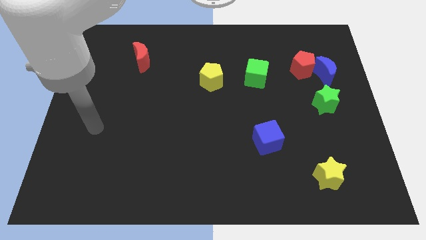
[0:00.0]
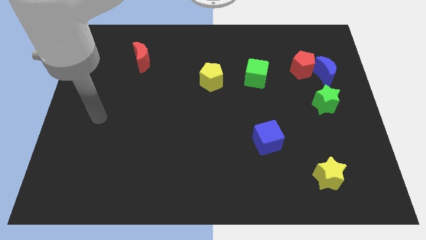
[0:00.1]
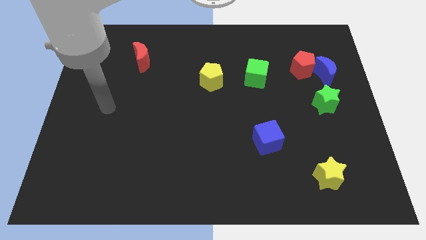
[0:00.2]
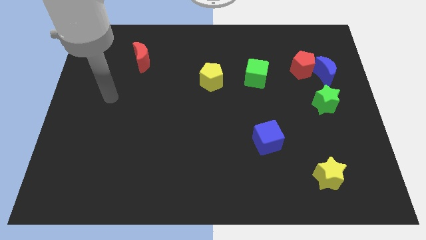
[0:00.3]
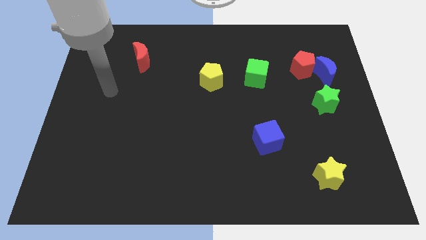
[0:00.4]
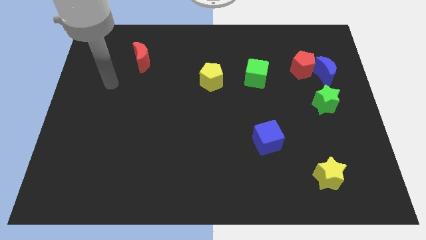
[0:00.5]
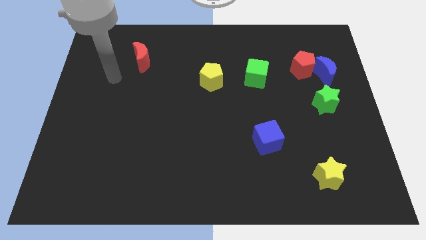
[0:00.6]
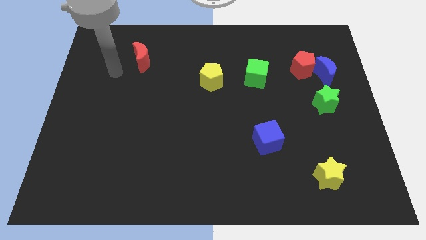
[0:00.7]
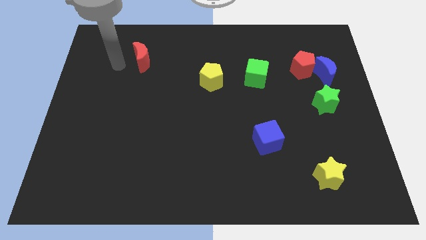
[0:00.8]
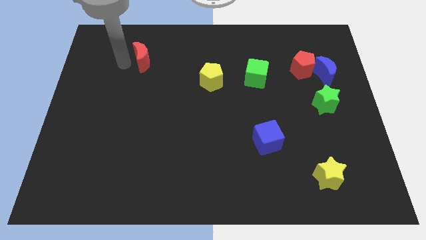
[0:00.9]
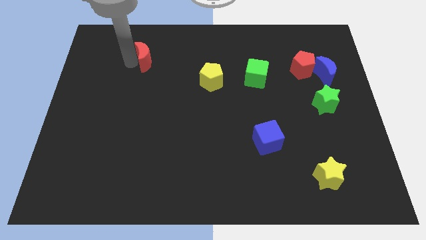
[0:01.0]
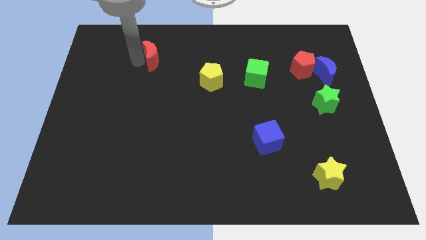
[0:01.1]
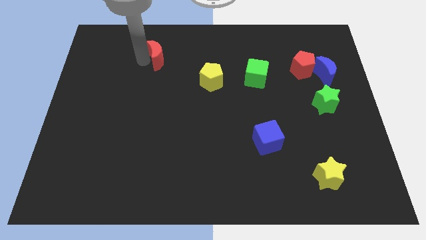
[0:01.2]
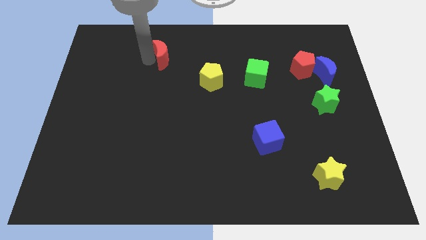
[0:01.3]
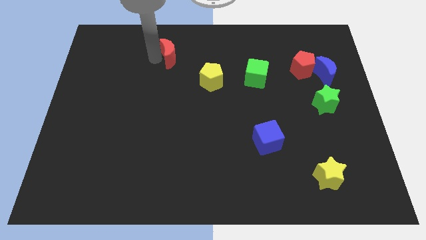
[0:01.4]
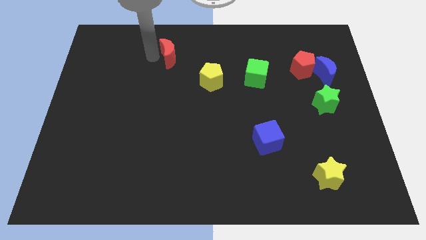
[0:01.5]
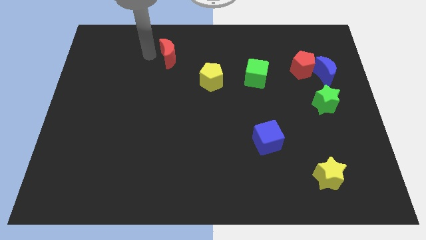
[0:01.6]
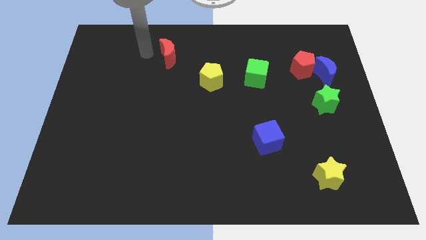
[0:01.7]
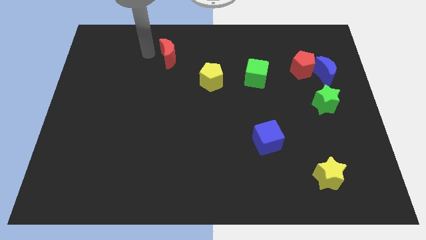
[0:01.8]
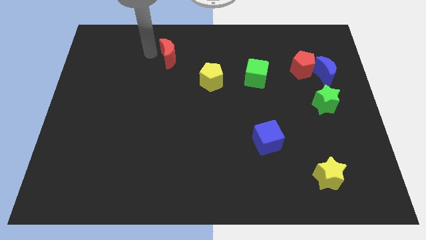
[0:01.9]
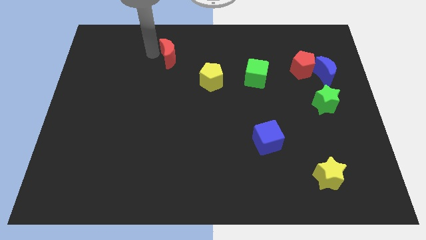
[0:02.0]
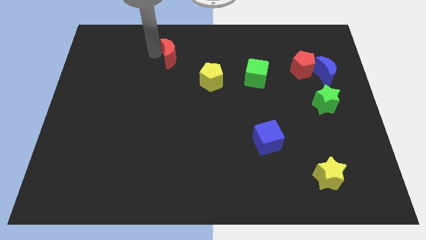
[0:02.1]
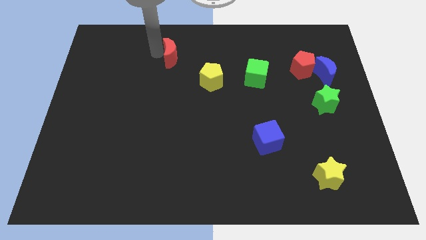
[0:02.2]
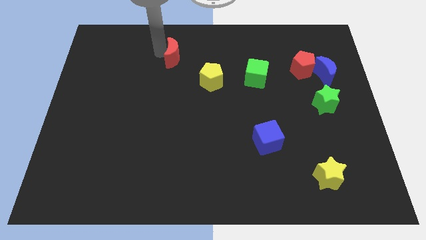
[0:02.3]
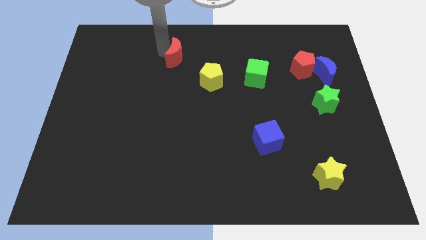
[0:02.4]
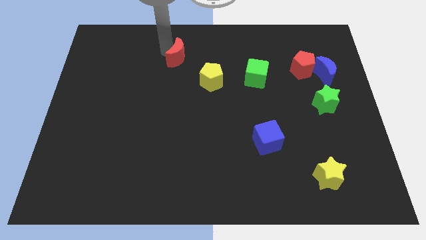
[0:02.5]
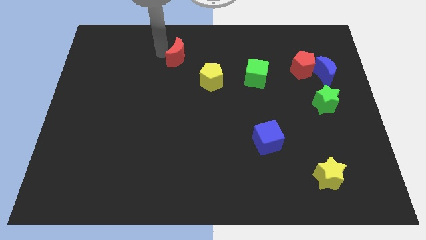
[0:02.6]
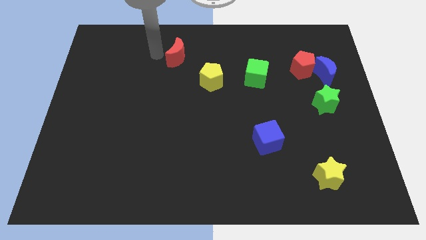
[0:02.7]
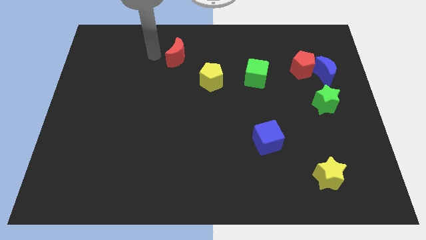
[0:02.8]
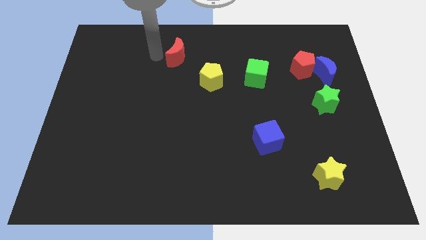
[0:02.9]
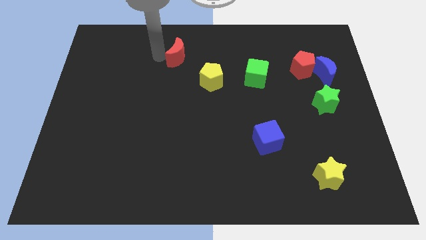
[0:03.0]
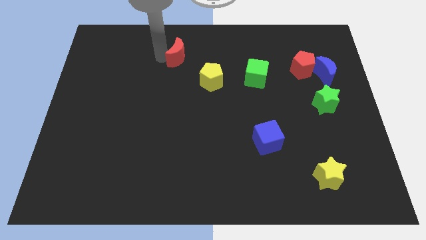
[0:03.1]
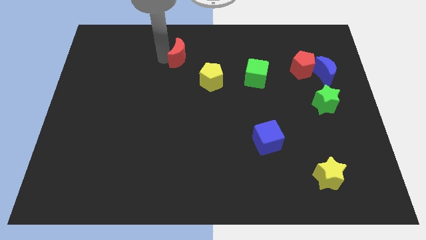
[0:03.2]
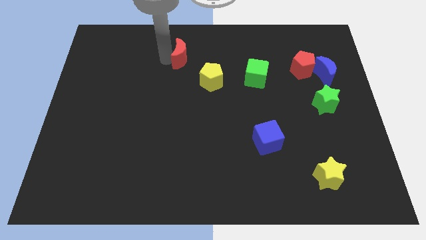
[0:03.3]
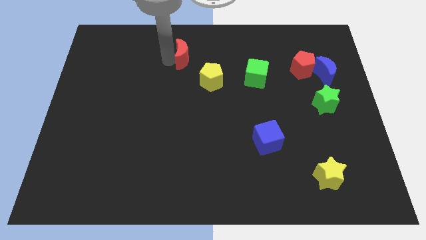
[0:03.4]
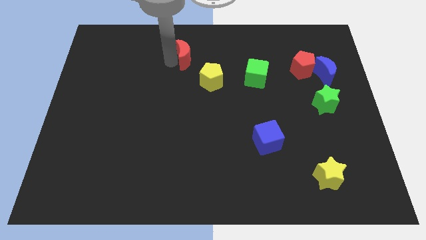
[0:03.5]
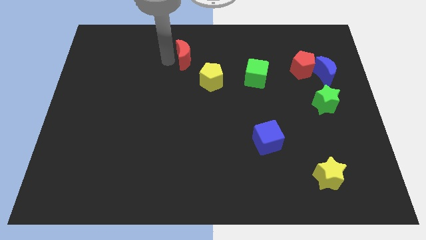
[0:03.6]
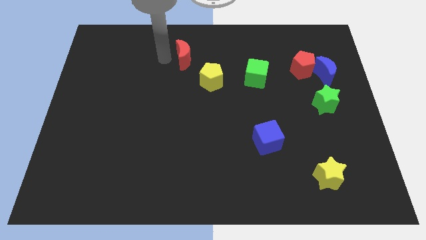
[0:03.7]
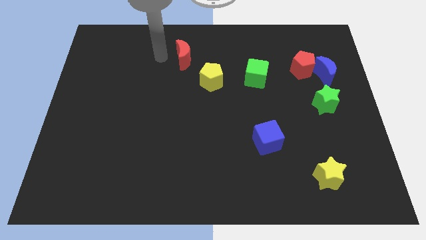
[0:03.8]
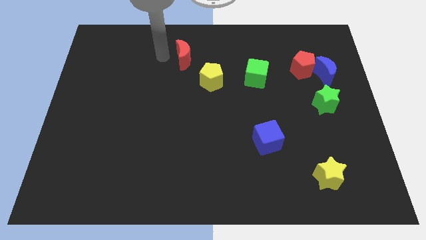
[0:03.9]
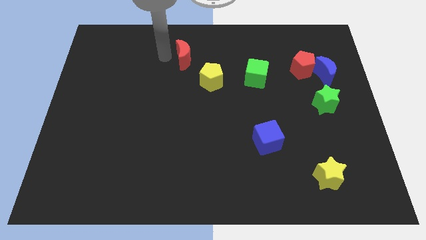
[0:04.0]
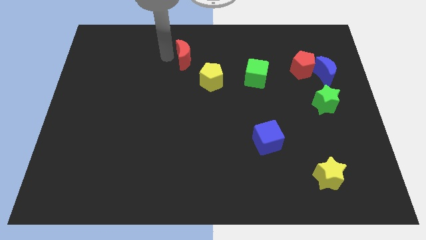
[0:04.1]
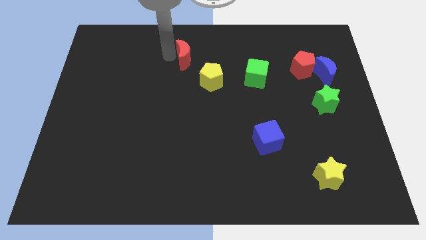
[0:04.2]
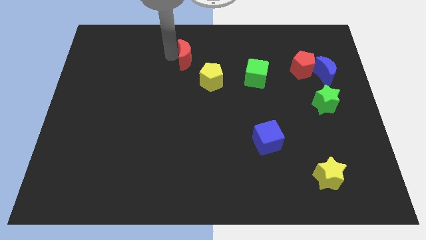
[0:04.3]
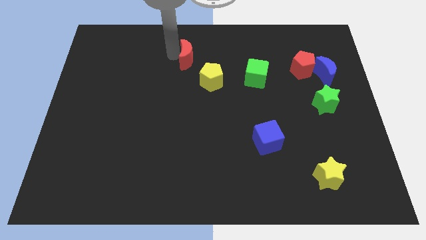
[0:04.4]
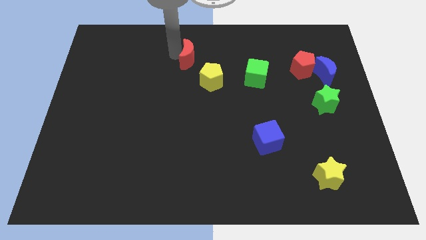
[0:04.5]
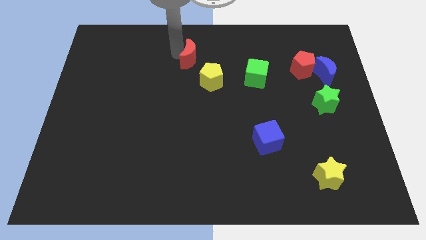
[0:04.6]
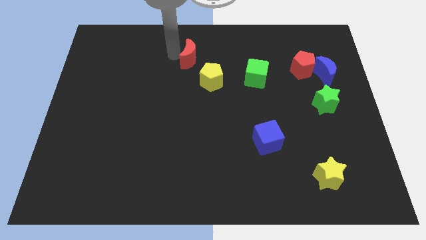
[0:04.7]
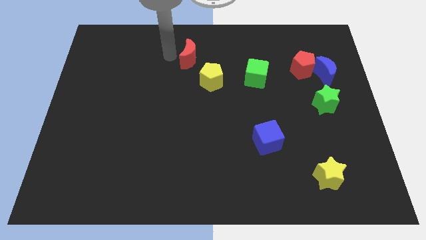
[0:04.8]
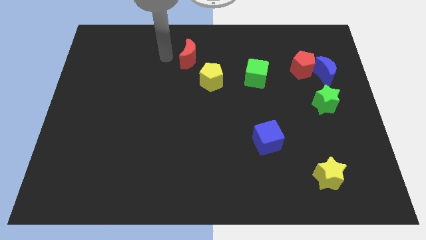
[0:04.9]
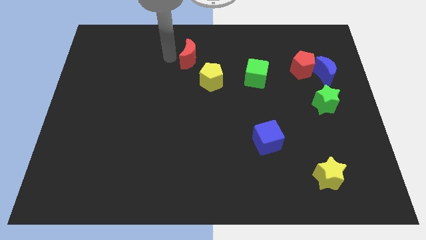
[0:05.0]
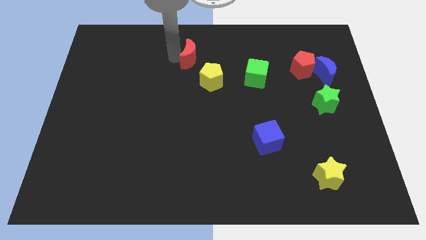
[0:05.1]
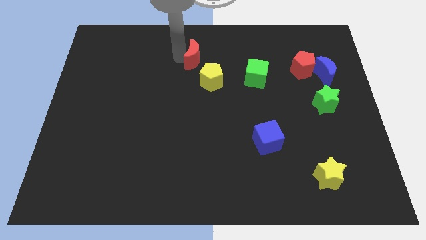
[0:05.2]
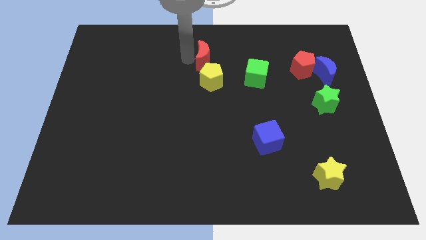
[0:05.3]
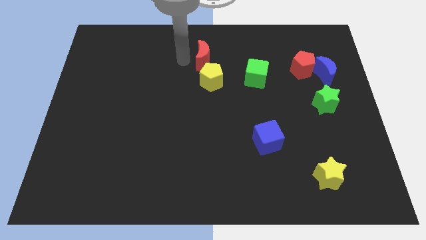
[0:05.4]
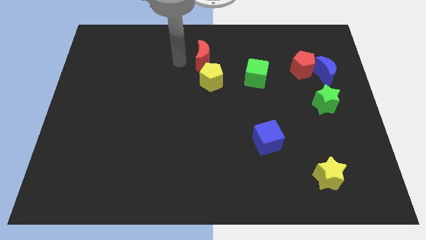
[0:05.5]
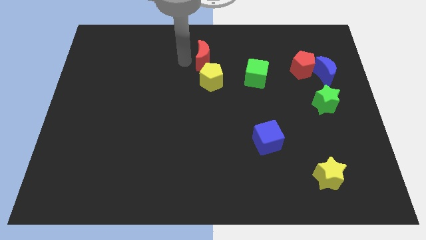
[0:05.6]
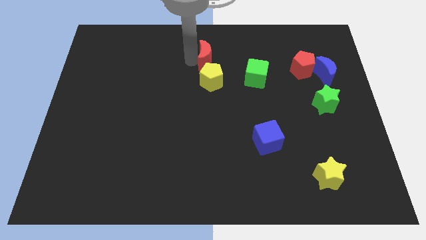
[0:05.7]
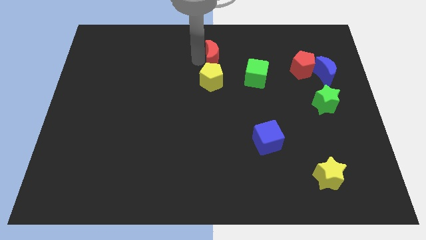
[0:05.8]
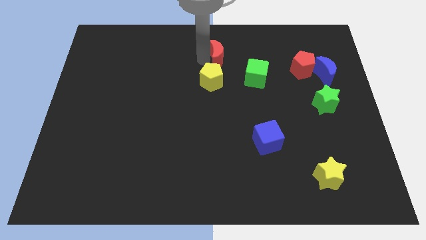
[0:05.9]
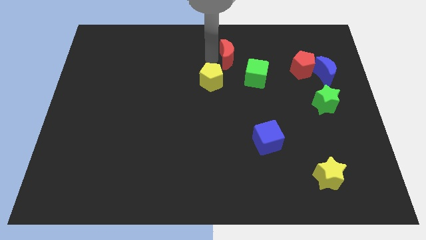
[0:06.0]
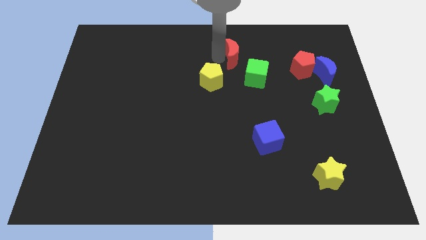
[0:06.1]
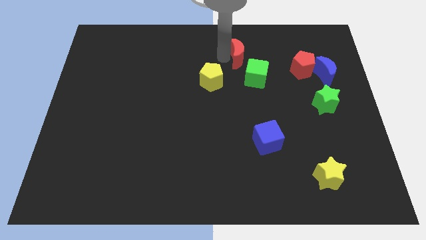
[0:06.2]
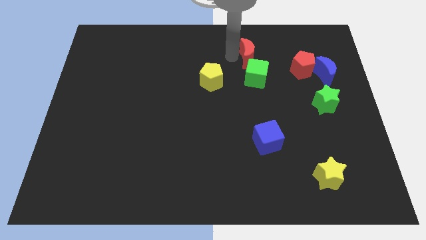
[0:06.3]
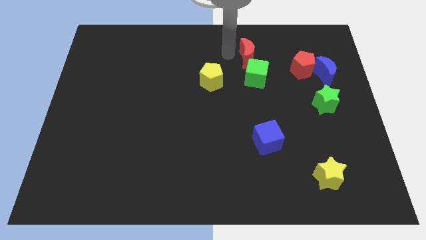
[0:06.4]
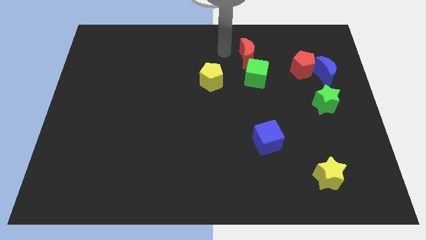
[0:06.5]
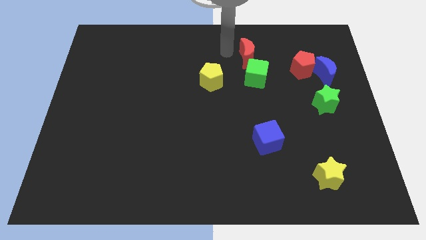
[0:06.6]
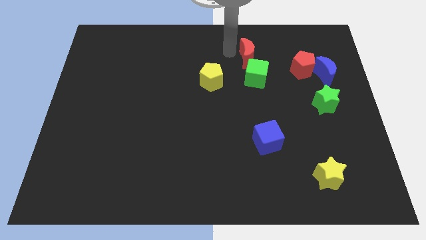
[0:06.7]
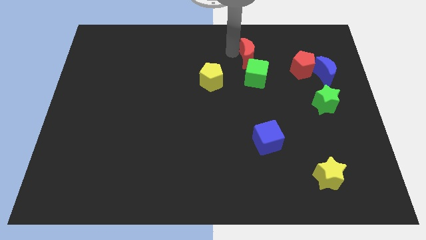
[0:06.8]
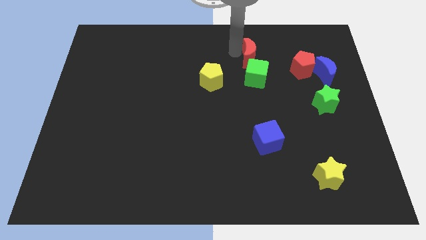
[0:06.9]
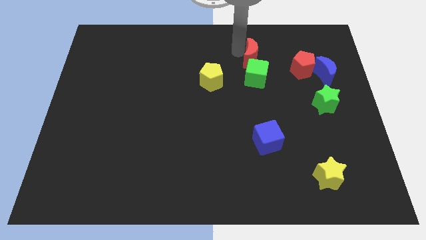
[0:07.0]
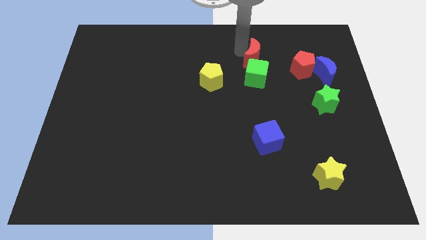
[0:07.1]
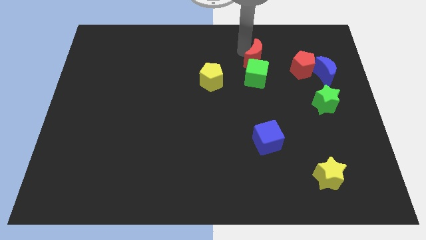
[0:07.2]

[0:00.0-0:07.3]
push the red moon to the top right of the green cube
